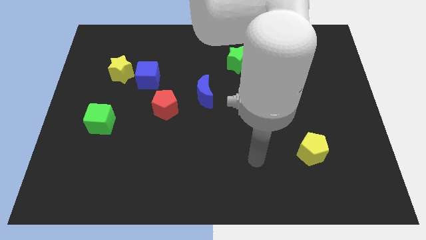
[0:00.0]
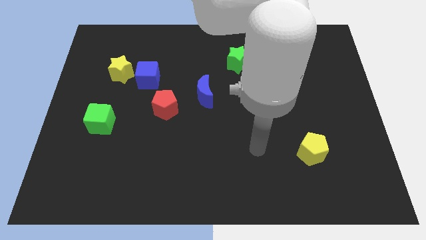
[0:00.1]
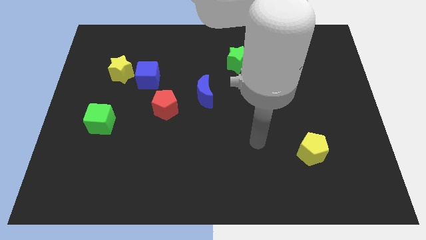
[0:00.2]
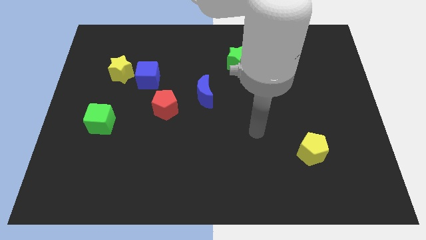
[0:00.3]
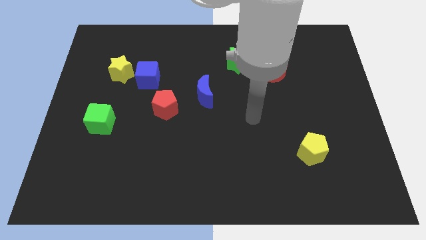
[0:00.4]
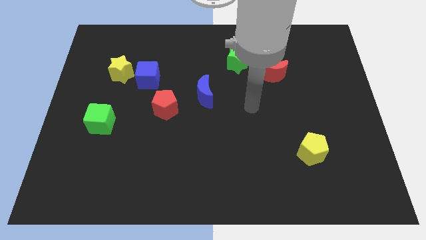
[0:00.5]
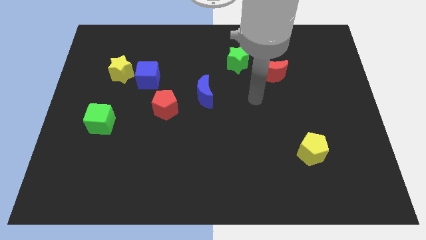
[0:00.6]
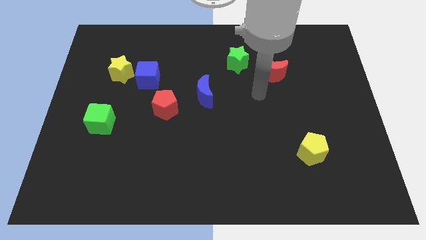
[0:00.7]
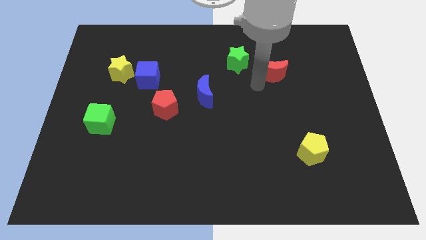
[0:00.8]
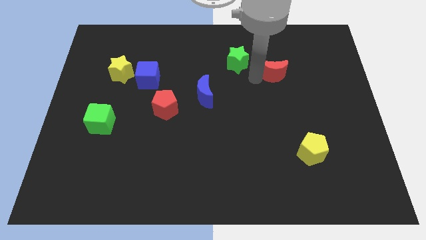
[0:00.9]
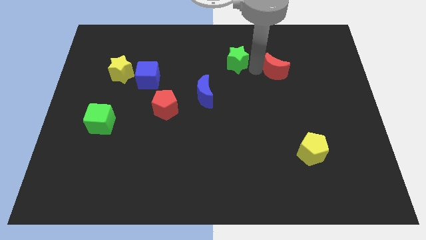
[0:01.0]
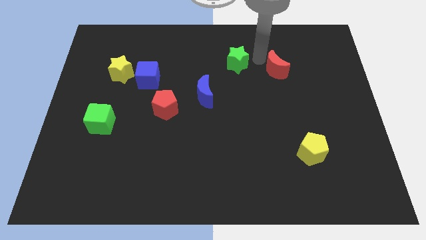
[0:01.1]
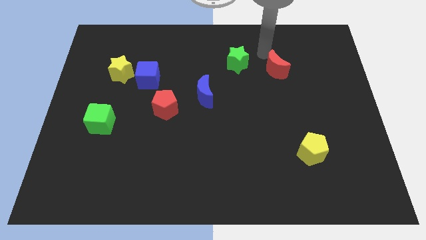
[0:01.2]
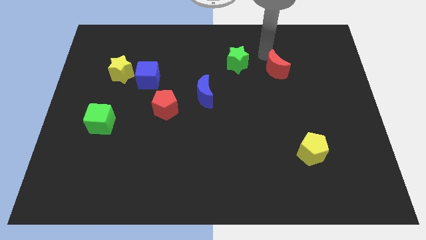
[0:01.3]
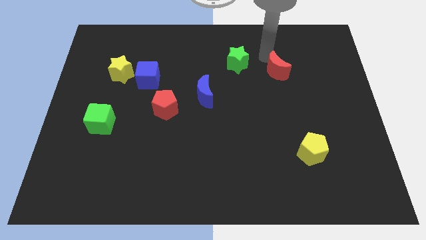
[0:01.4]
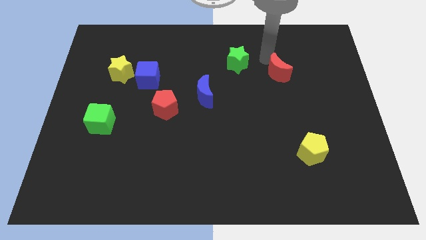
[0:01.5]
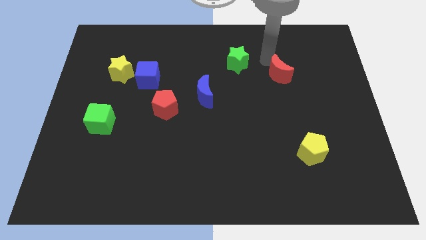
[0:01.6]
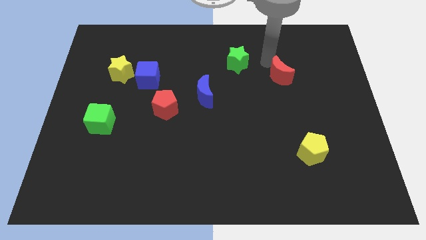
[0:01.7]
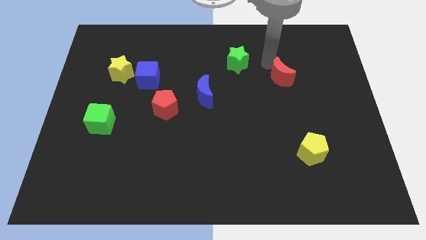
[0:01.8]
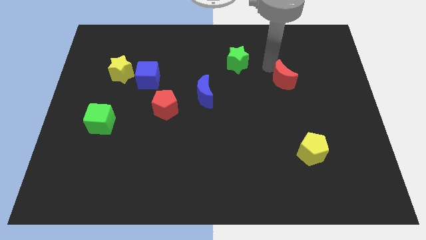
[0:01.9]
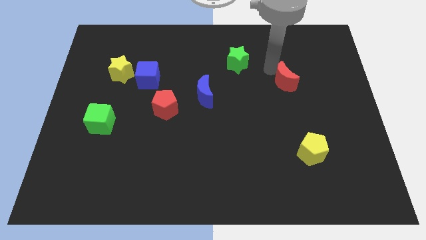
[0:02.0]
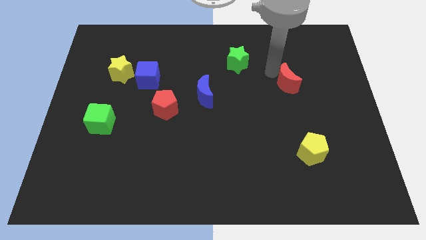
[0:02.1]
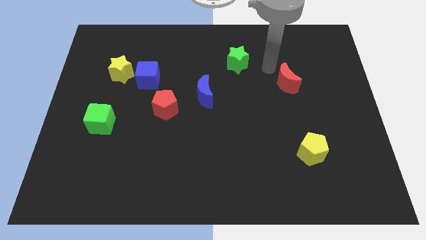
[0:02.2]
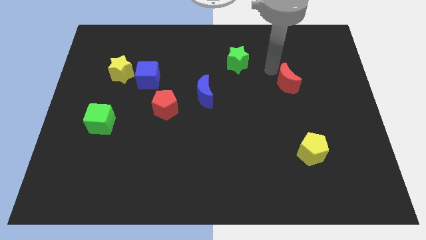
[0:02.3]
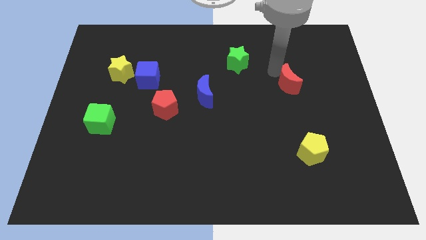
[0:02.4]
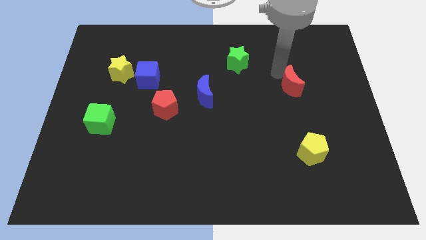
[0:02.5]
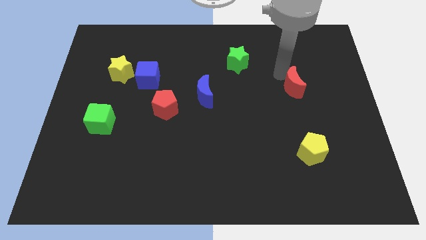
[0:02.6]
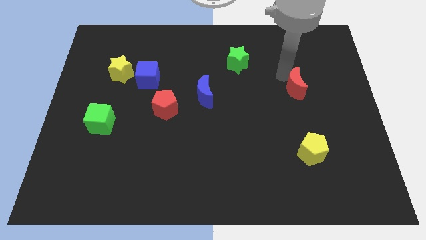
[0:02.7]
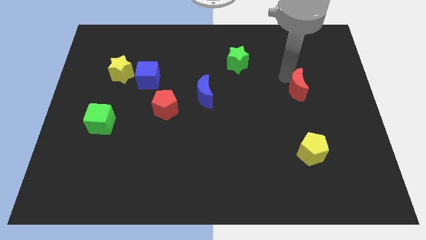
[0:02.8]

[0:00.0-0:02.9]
slightly slide the red moon diagonally downwards and right

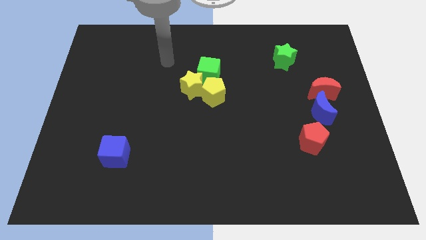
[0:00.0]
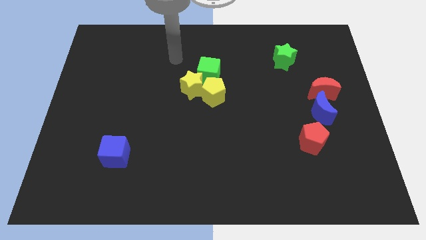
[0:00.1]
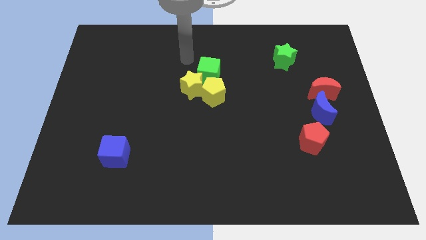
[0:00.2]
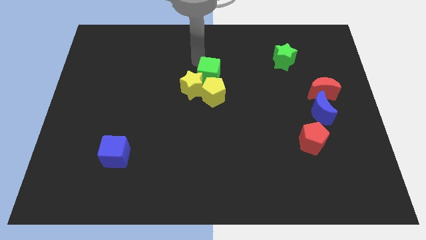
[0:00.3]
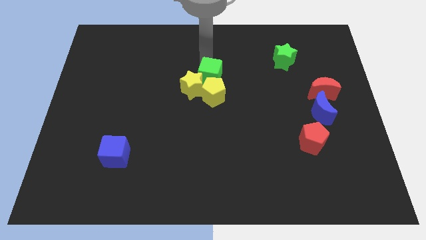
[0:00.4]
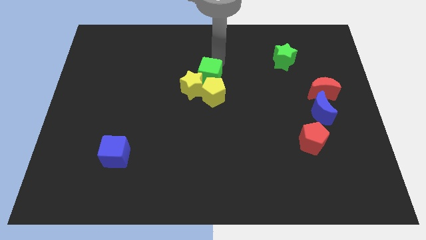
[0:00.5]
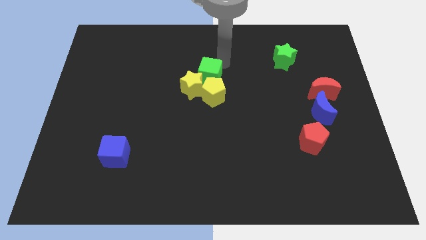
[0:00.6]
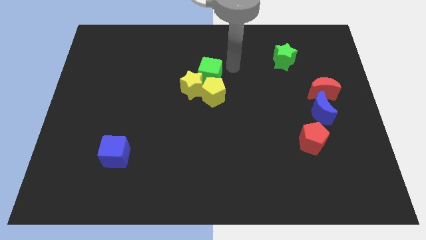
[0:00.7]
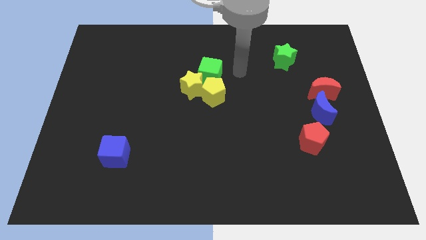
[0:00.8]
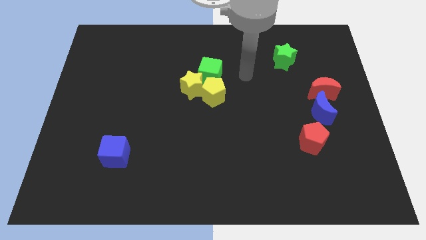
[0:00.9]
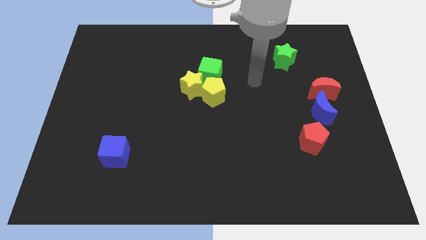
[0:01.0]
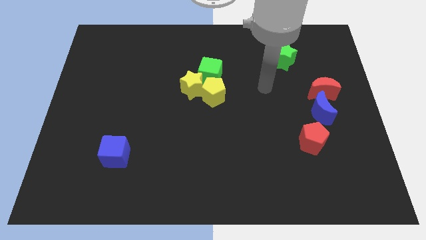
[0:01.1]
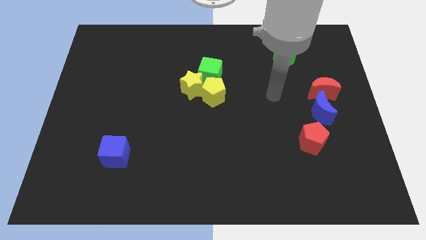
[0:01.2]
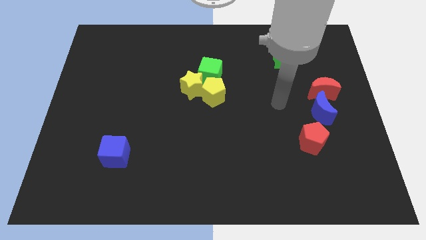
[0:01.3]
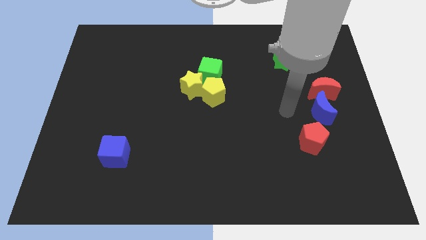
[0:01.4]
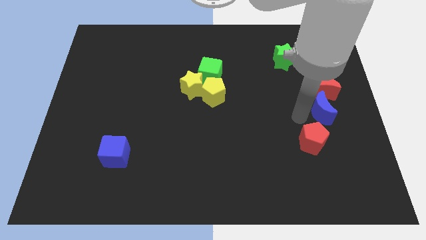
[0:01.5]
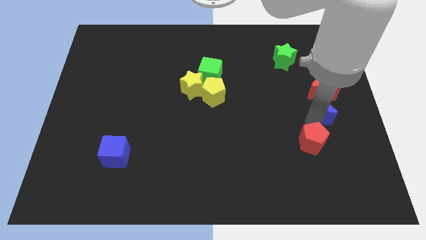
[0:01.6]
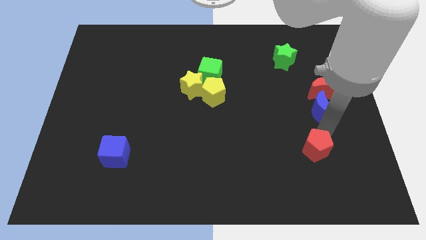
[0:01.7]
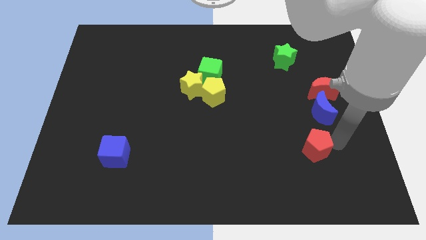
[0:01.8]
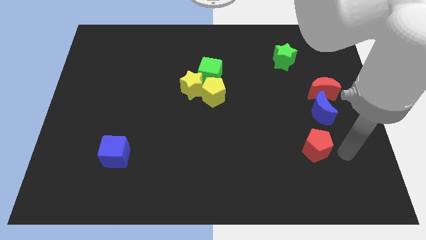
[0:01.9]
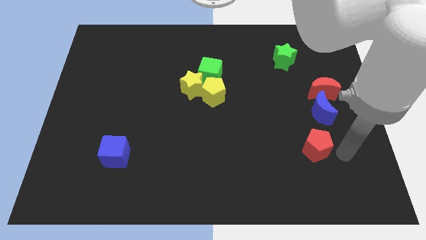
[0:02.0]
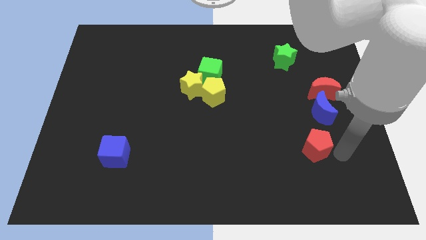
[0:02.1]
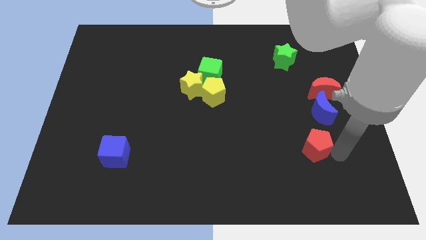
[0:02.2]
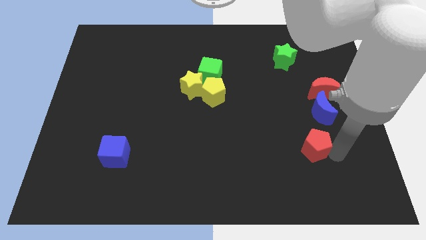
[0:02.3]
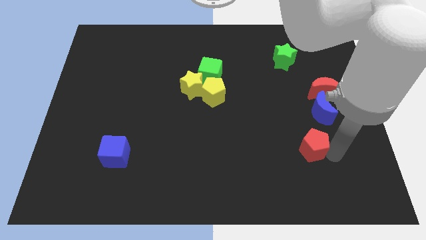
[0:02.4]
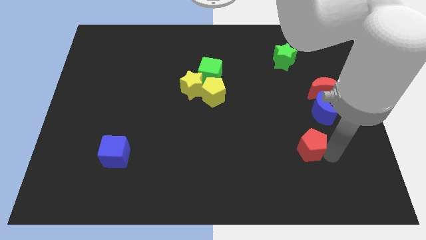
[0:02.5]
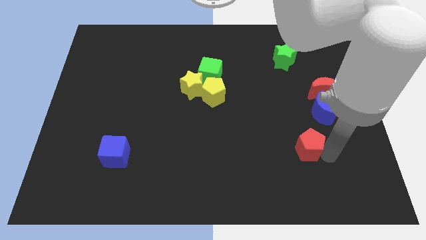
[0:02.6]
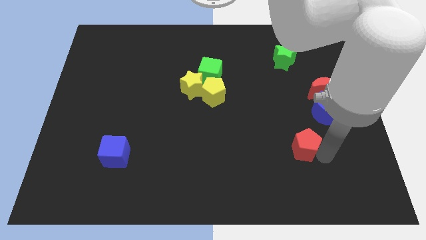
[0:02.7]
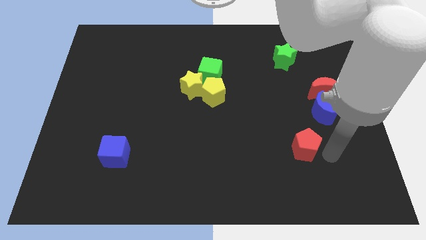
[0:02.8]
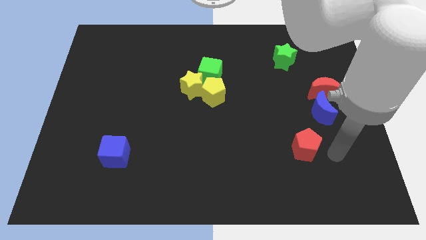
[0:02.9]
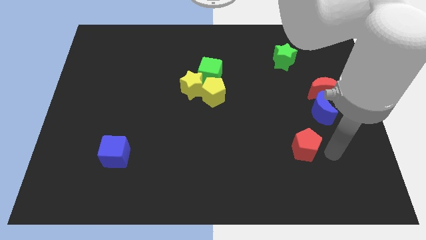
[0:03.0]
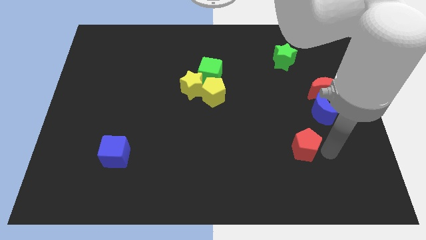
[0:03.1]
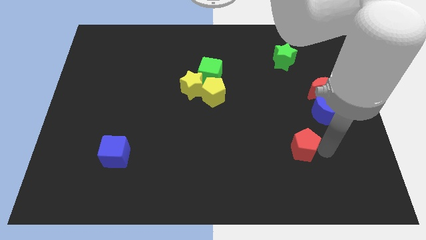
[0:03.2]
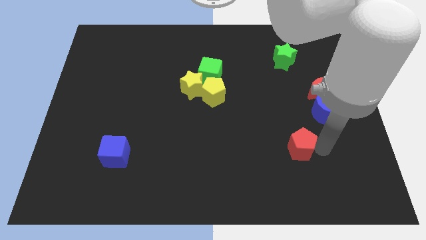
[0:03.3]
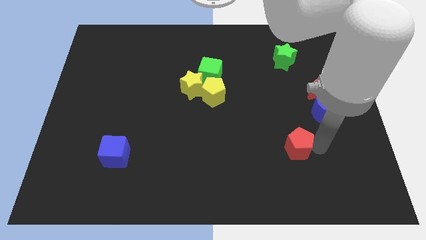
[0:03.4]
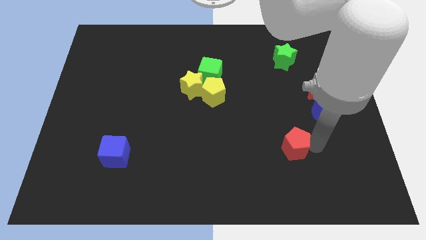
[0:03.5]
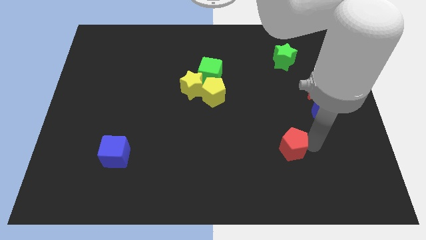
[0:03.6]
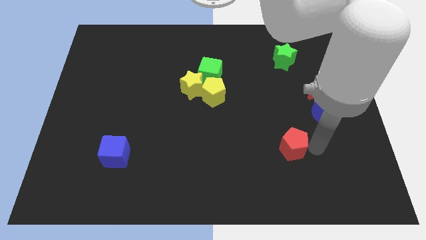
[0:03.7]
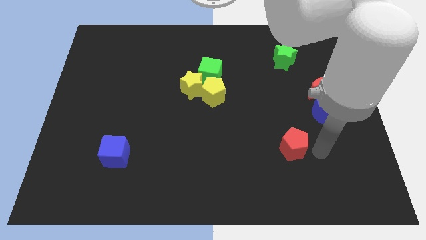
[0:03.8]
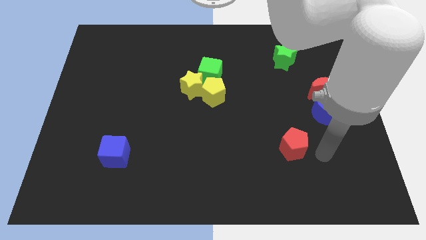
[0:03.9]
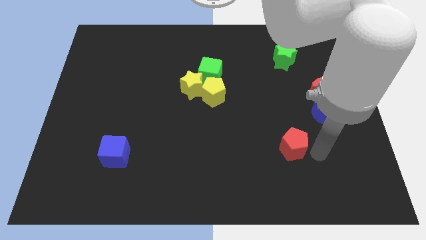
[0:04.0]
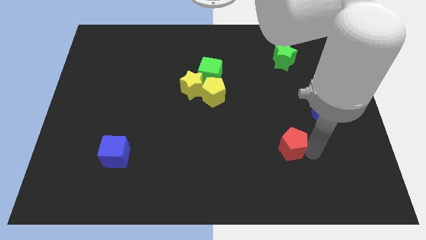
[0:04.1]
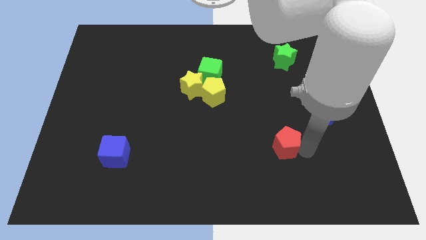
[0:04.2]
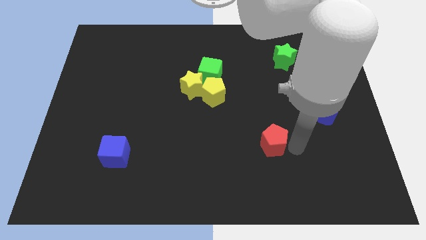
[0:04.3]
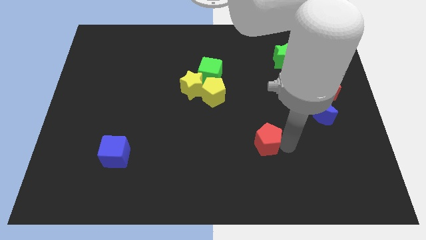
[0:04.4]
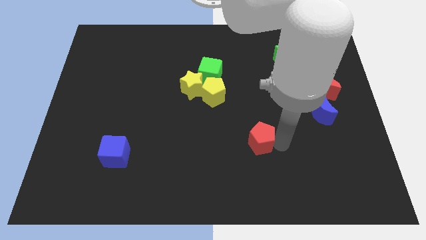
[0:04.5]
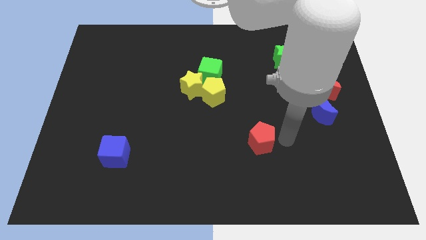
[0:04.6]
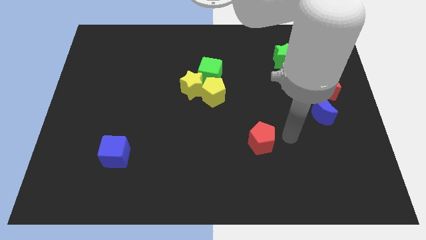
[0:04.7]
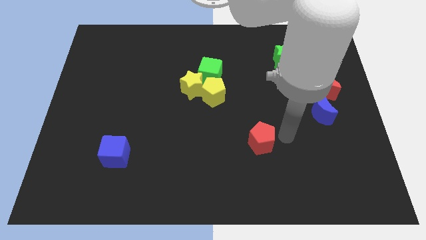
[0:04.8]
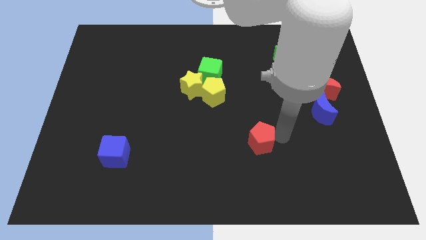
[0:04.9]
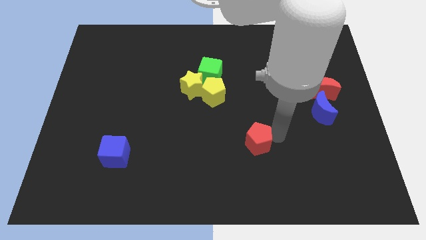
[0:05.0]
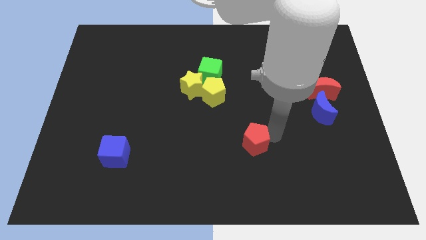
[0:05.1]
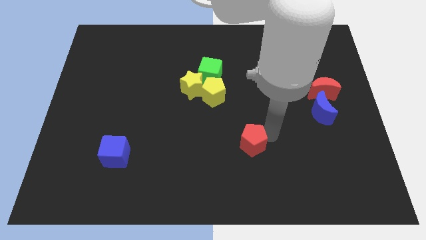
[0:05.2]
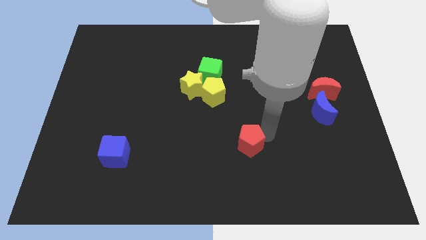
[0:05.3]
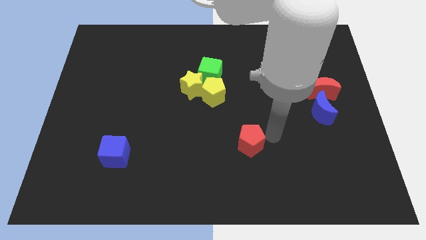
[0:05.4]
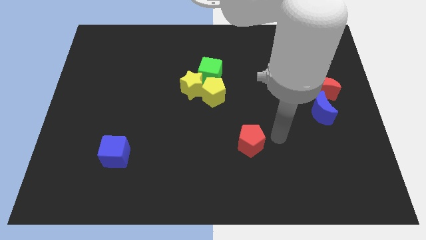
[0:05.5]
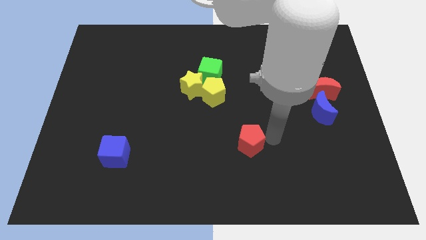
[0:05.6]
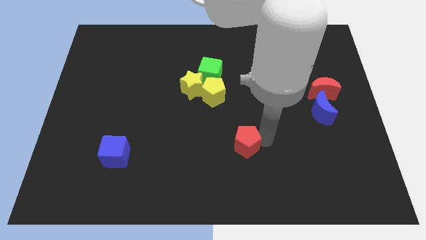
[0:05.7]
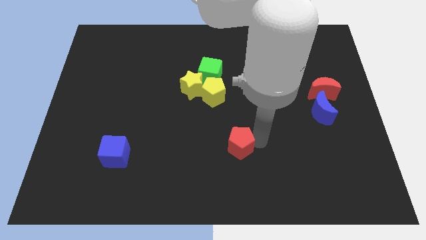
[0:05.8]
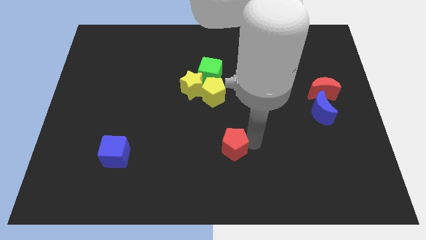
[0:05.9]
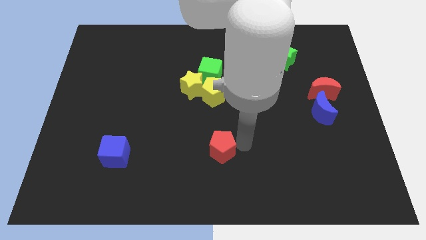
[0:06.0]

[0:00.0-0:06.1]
push the red pentagon left
